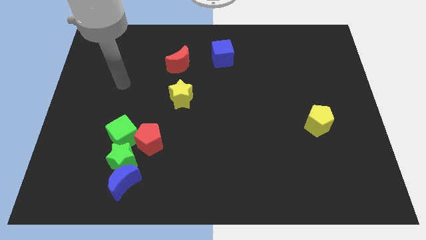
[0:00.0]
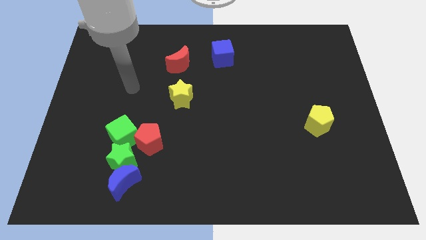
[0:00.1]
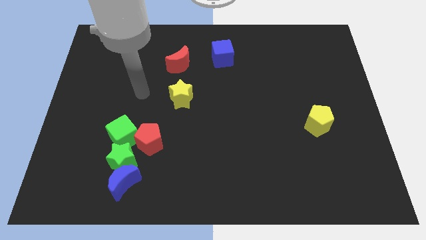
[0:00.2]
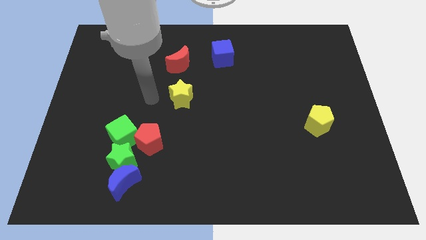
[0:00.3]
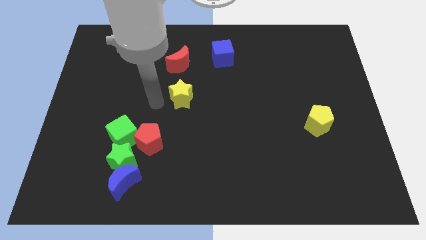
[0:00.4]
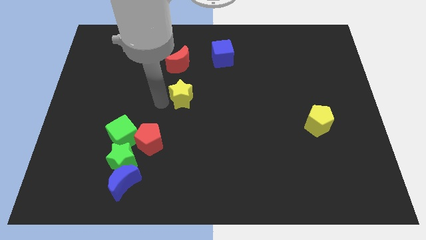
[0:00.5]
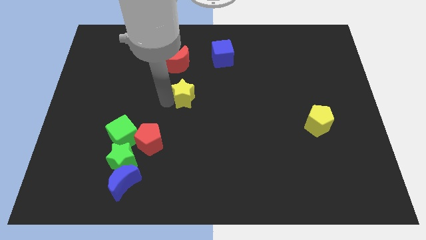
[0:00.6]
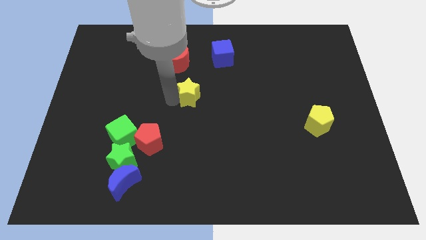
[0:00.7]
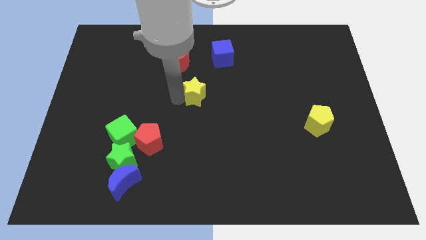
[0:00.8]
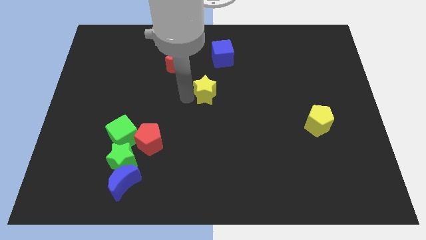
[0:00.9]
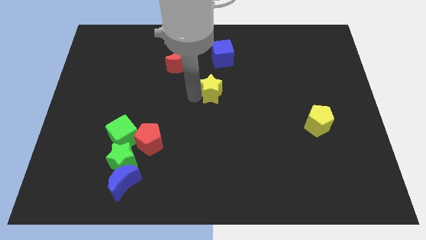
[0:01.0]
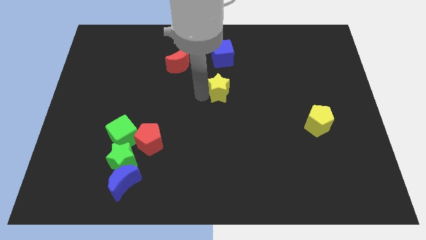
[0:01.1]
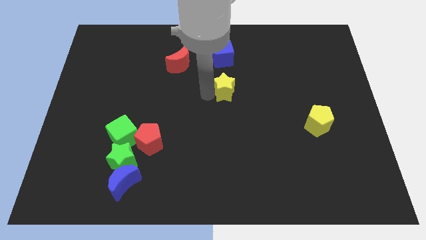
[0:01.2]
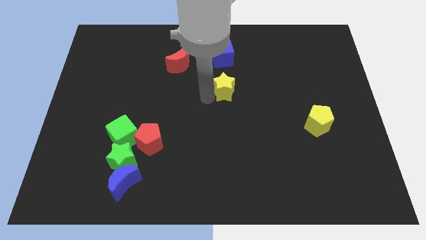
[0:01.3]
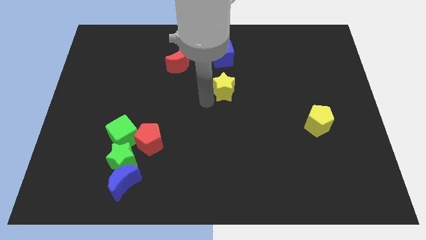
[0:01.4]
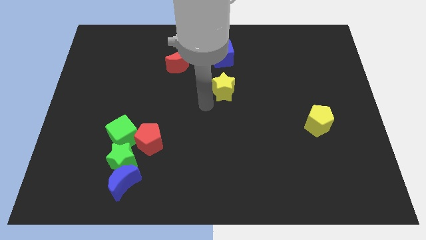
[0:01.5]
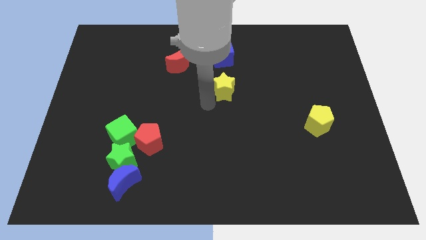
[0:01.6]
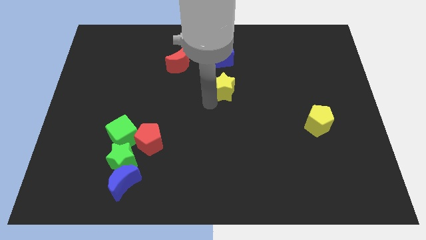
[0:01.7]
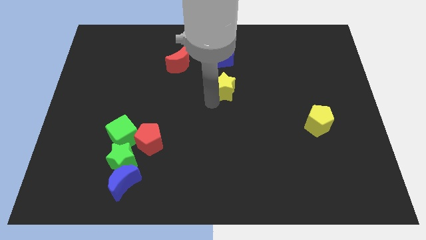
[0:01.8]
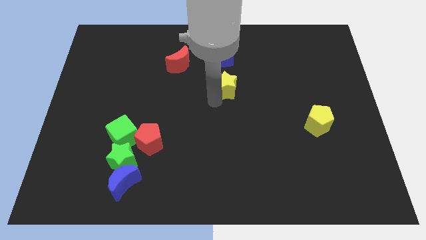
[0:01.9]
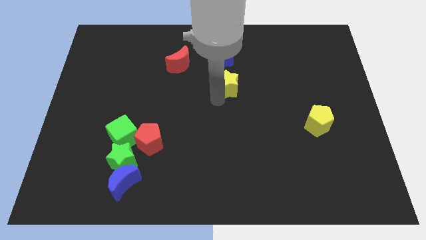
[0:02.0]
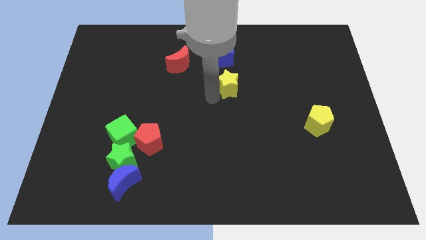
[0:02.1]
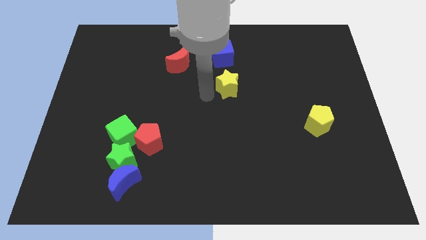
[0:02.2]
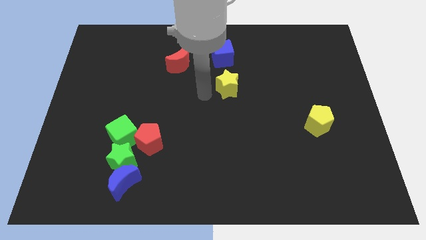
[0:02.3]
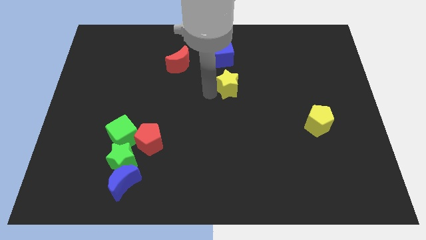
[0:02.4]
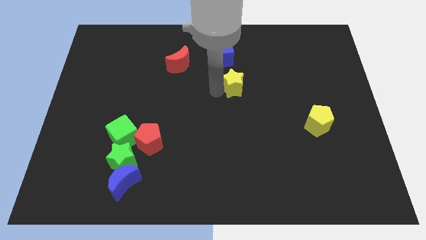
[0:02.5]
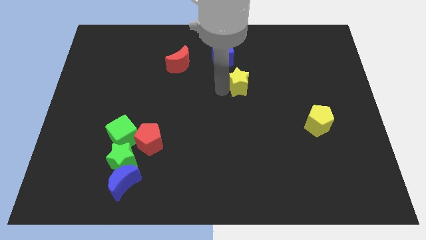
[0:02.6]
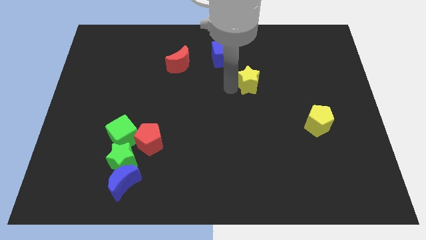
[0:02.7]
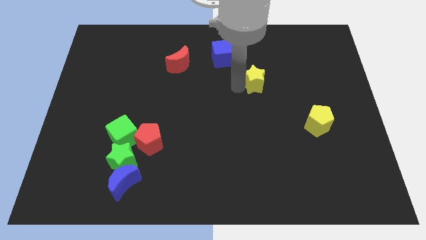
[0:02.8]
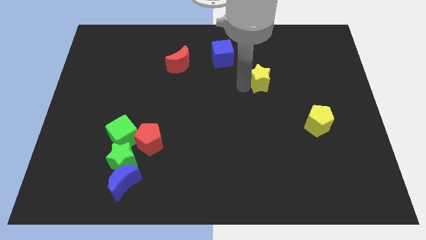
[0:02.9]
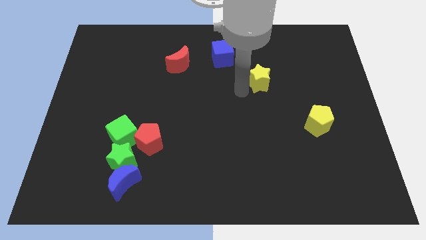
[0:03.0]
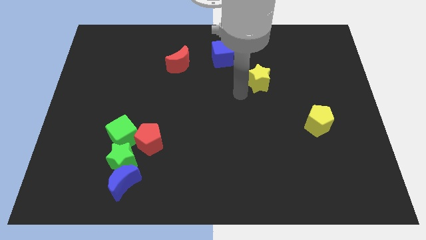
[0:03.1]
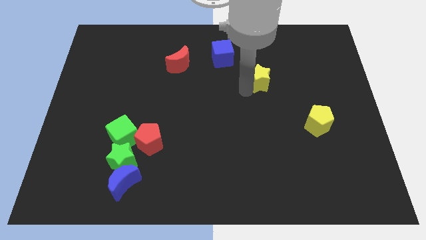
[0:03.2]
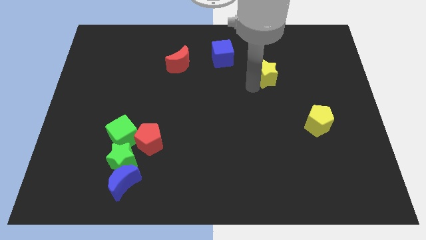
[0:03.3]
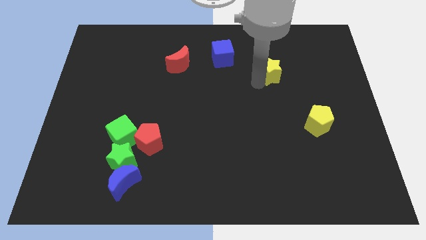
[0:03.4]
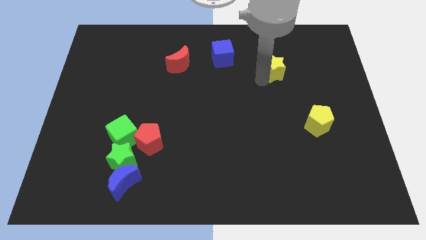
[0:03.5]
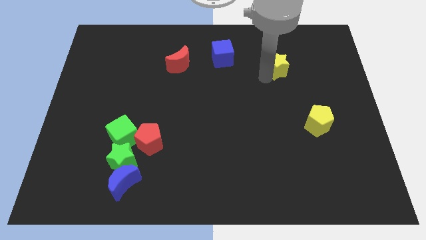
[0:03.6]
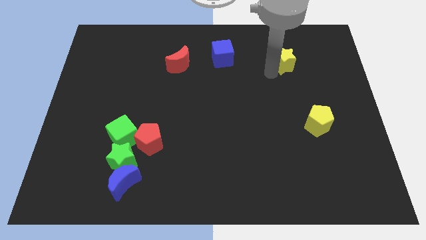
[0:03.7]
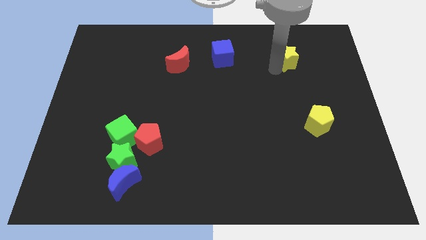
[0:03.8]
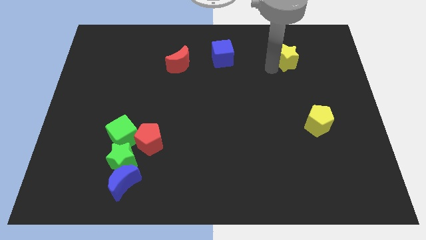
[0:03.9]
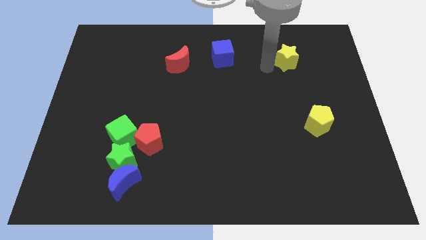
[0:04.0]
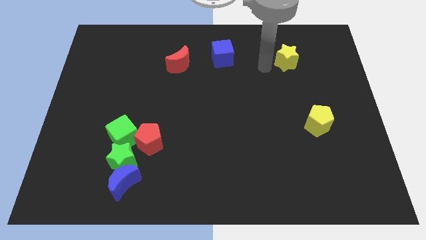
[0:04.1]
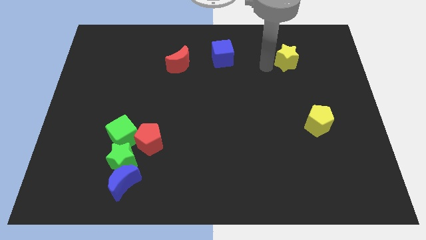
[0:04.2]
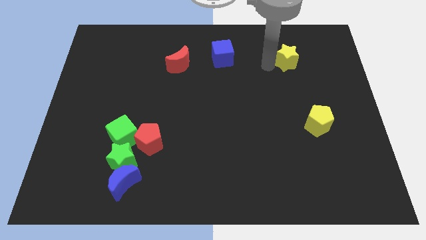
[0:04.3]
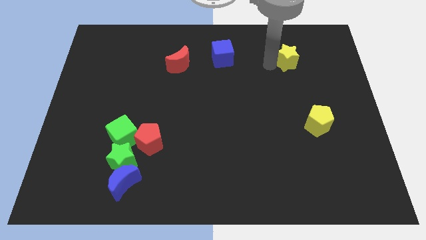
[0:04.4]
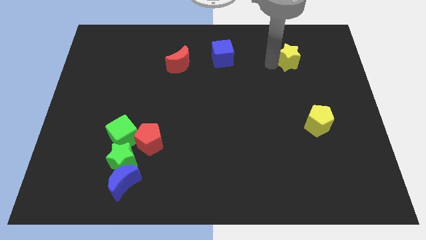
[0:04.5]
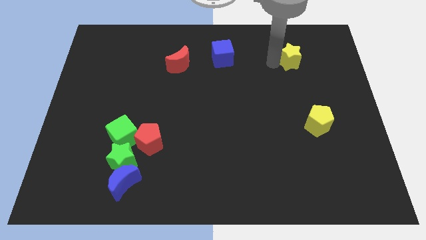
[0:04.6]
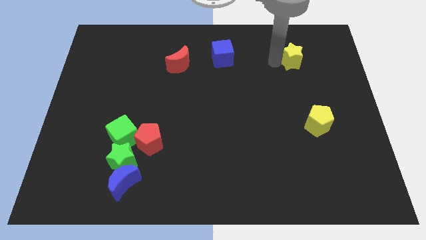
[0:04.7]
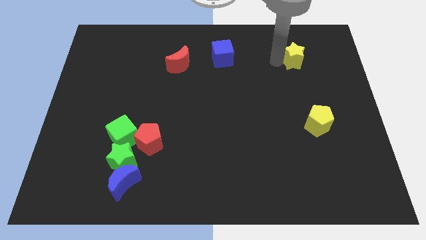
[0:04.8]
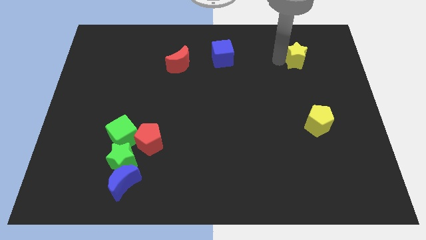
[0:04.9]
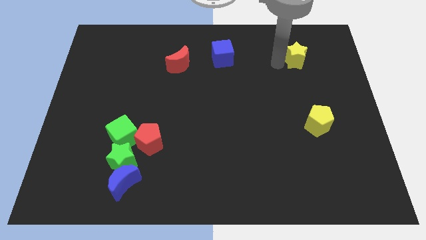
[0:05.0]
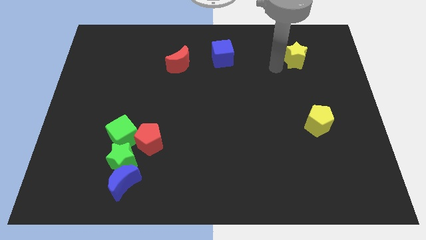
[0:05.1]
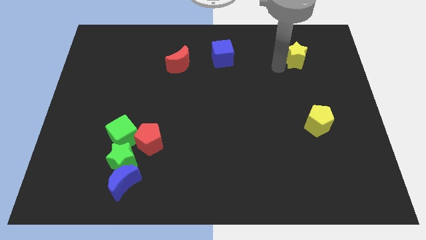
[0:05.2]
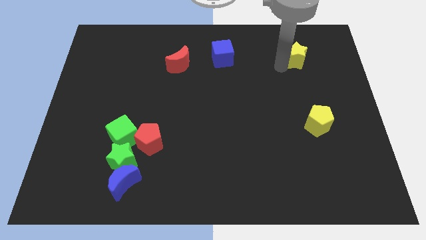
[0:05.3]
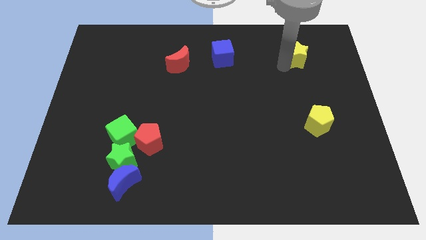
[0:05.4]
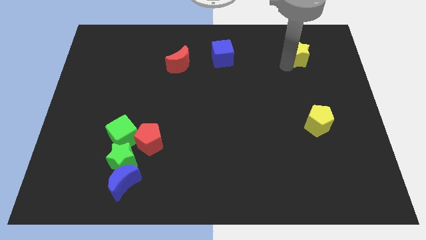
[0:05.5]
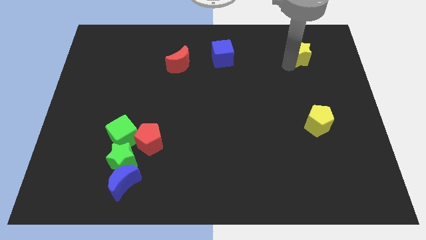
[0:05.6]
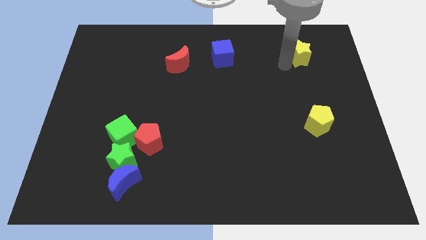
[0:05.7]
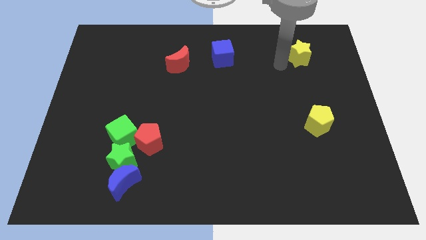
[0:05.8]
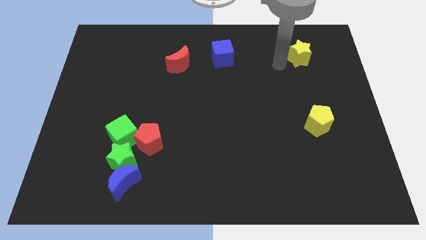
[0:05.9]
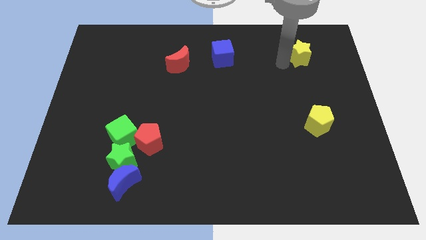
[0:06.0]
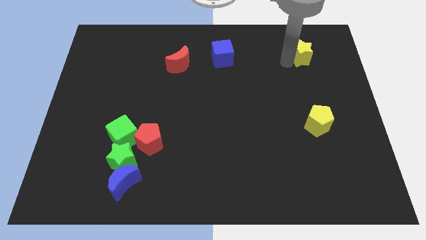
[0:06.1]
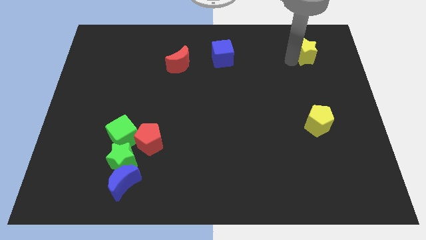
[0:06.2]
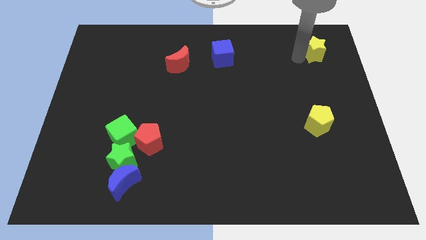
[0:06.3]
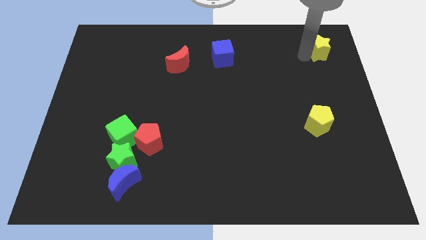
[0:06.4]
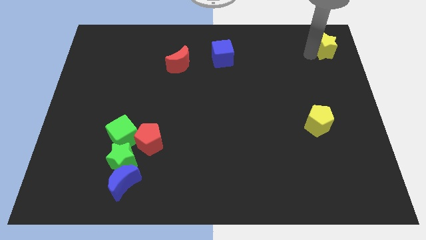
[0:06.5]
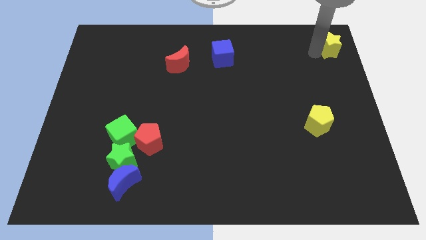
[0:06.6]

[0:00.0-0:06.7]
move the yellow star to the top right
